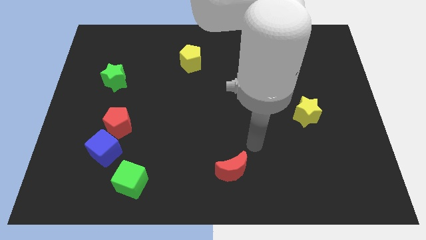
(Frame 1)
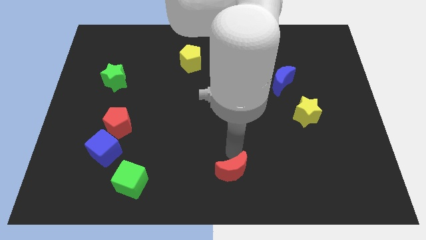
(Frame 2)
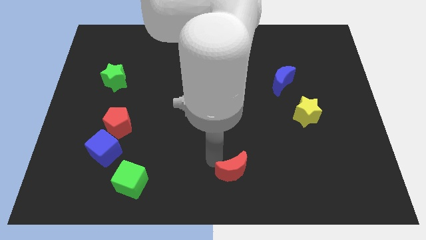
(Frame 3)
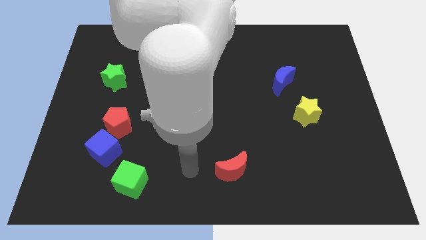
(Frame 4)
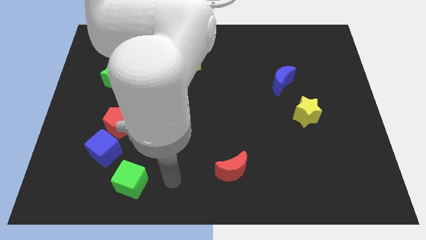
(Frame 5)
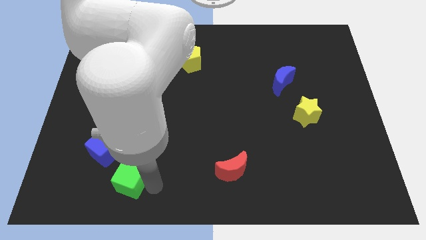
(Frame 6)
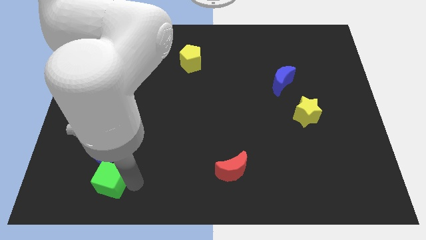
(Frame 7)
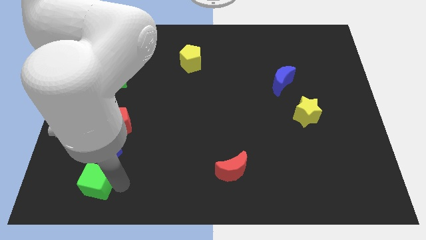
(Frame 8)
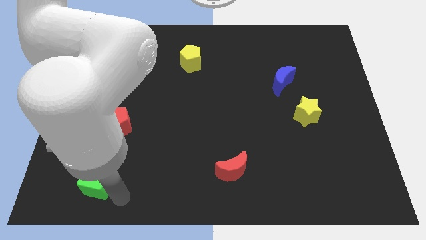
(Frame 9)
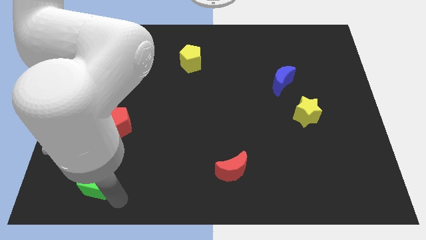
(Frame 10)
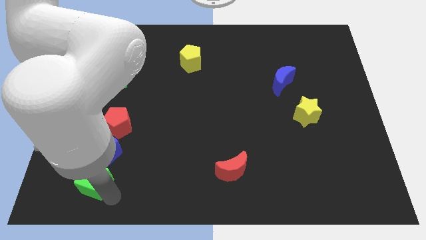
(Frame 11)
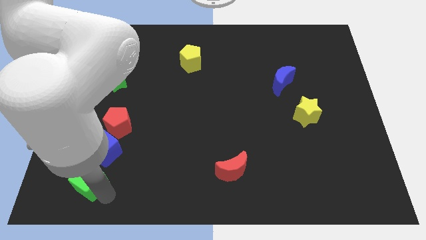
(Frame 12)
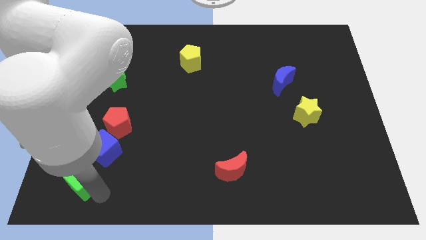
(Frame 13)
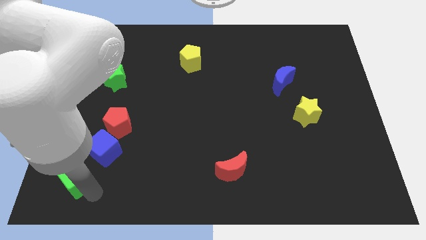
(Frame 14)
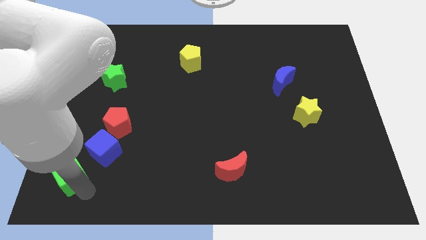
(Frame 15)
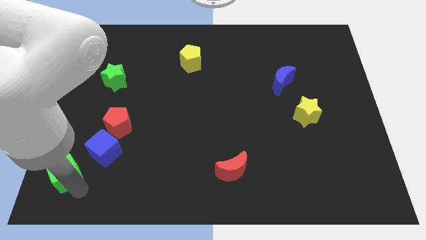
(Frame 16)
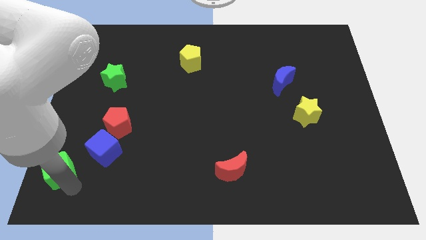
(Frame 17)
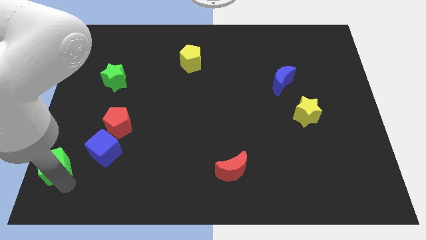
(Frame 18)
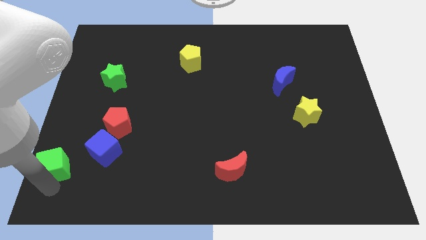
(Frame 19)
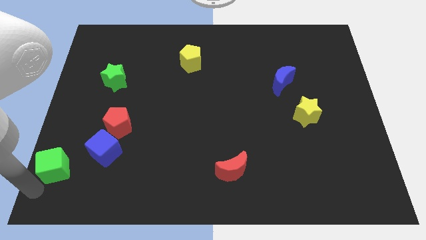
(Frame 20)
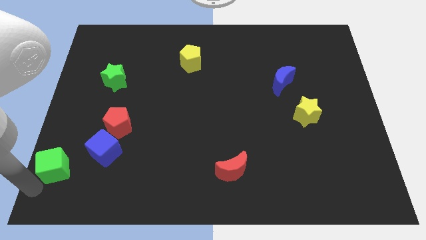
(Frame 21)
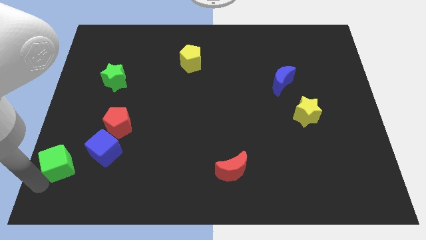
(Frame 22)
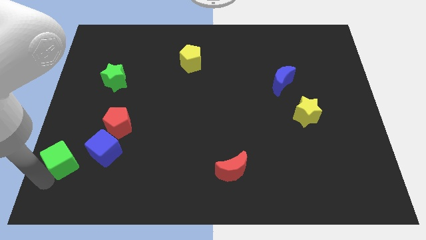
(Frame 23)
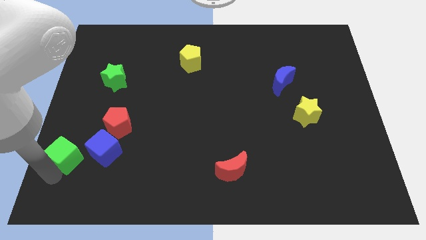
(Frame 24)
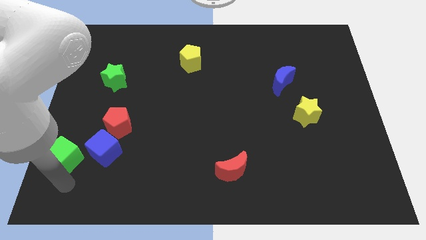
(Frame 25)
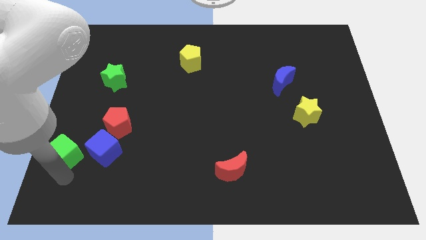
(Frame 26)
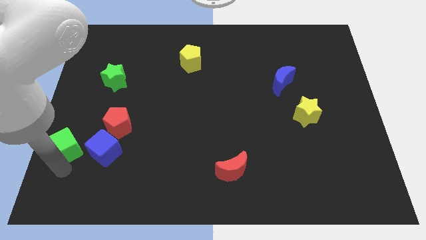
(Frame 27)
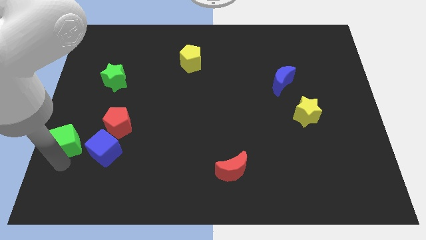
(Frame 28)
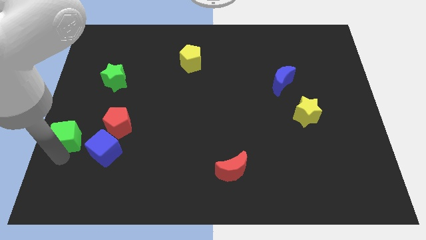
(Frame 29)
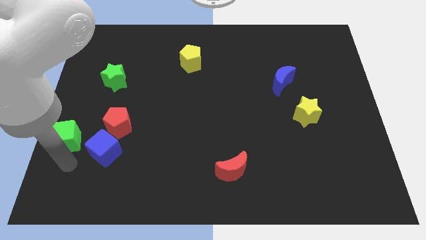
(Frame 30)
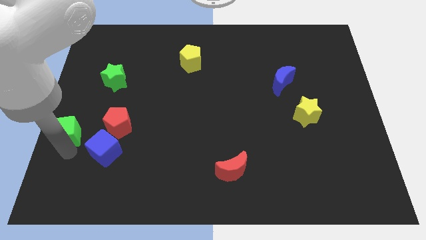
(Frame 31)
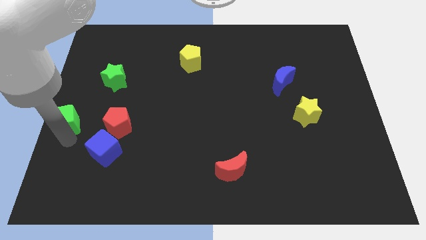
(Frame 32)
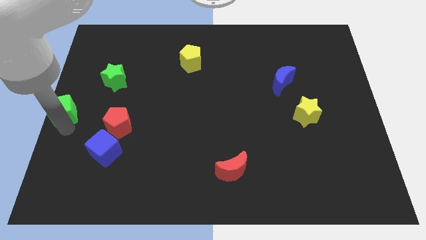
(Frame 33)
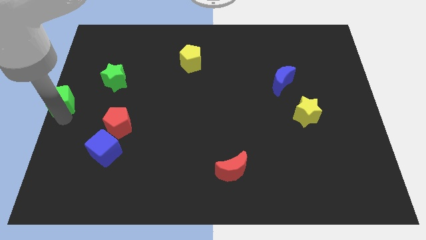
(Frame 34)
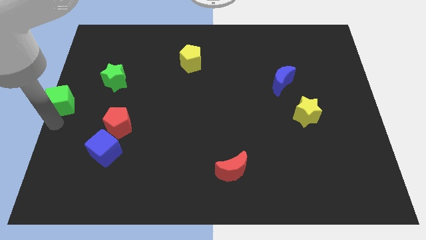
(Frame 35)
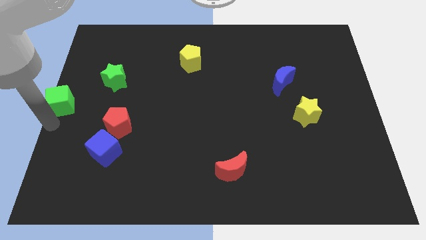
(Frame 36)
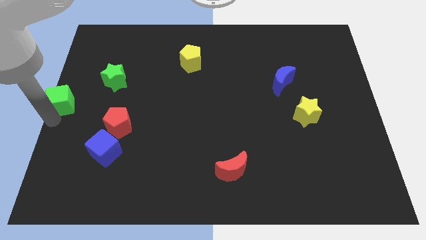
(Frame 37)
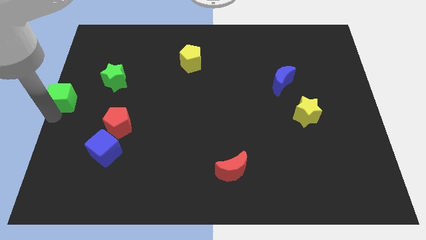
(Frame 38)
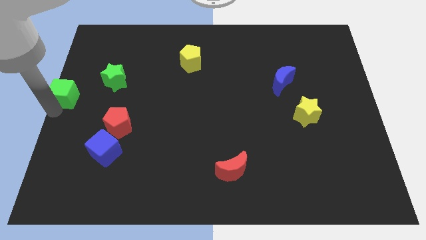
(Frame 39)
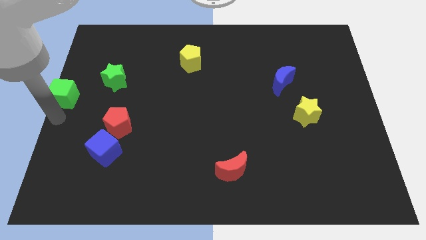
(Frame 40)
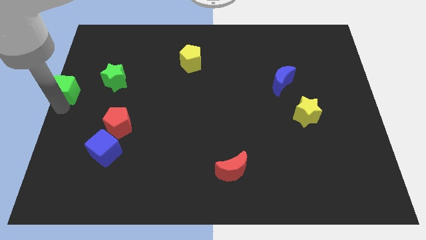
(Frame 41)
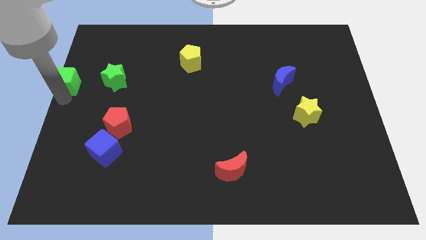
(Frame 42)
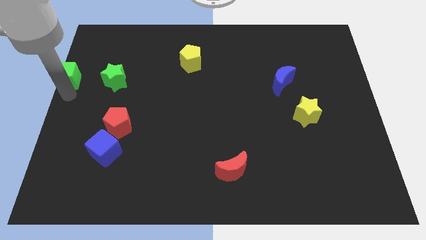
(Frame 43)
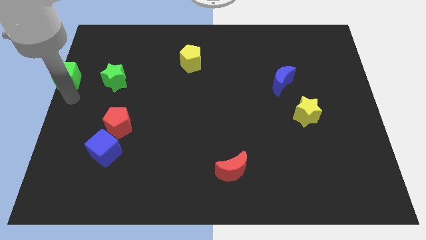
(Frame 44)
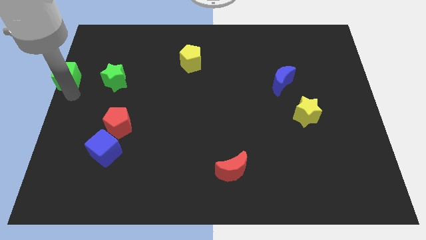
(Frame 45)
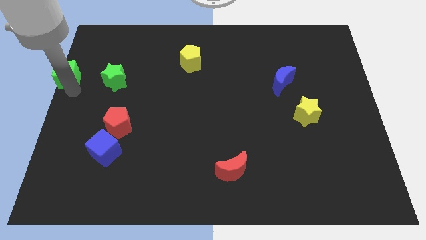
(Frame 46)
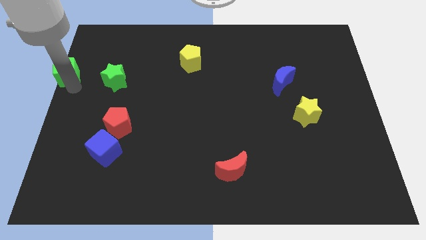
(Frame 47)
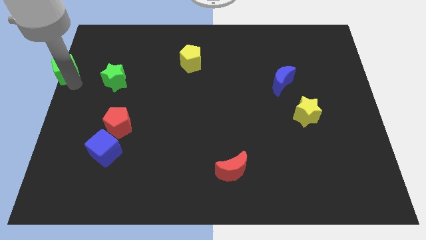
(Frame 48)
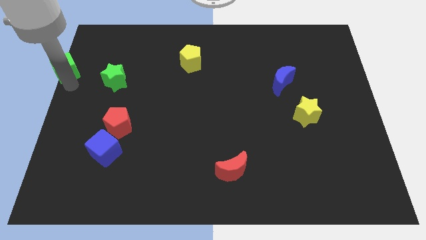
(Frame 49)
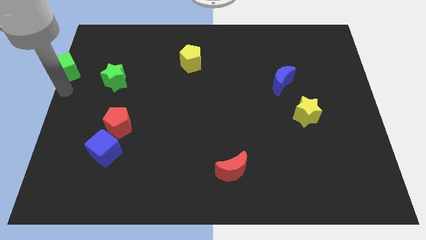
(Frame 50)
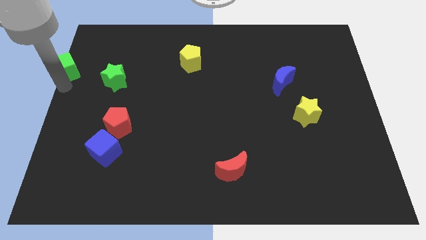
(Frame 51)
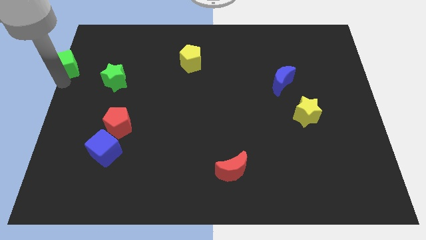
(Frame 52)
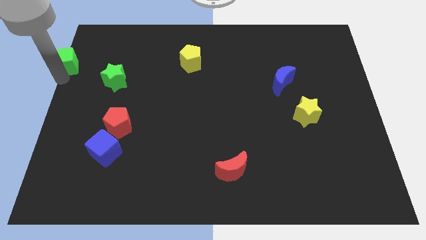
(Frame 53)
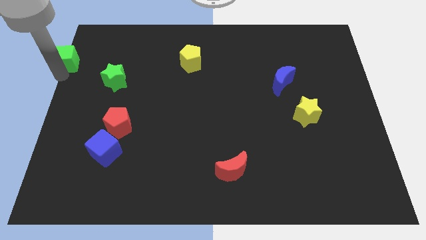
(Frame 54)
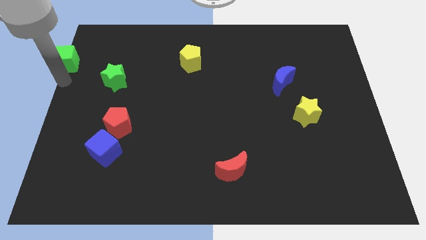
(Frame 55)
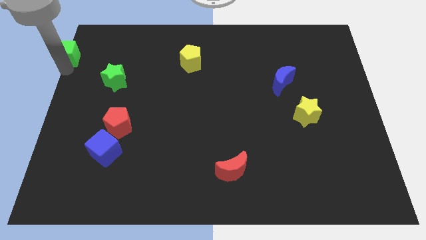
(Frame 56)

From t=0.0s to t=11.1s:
put the green cube to the top left

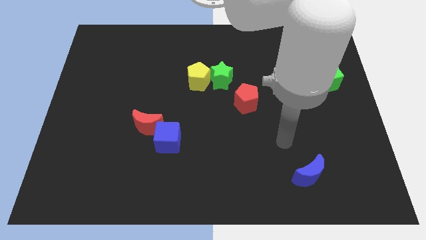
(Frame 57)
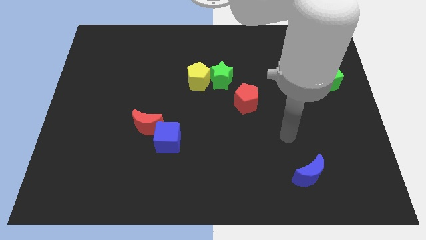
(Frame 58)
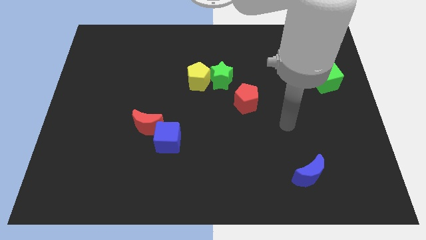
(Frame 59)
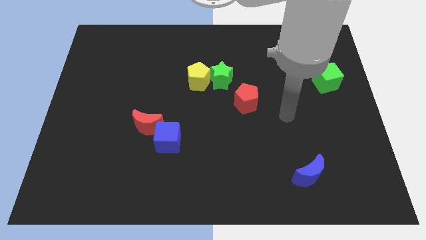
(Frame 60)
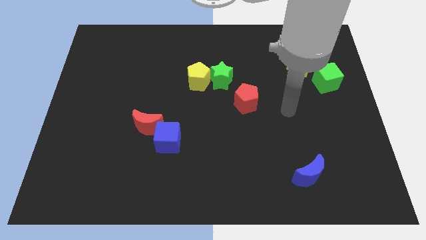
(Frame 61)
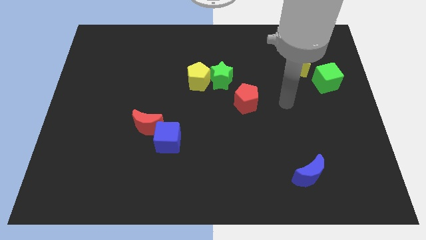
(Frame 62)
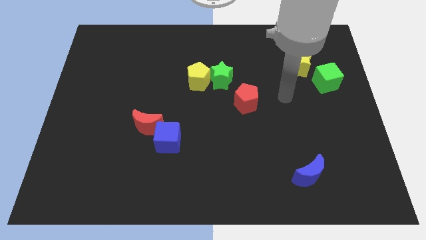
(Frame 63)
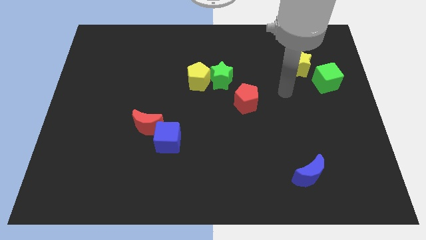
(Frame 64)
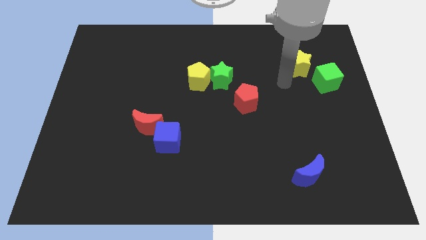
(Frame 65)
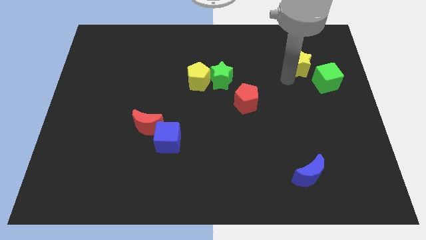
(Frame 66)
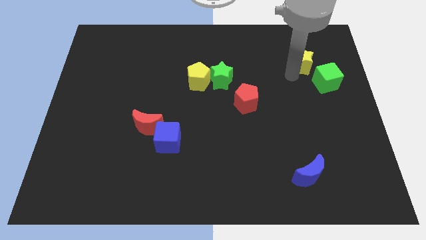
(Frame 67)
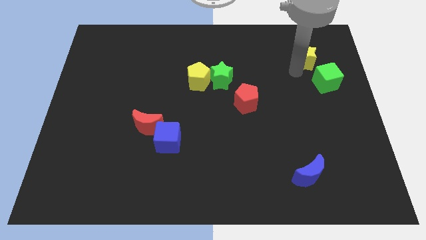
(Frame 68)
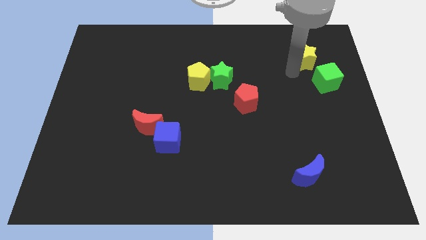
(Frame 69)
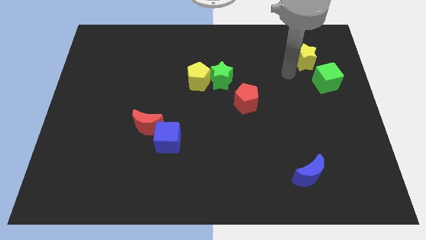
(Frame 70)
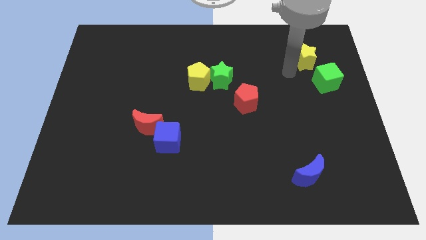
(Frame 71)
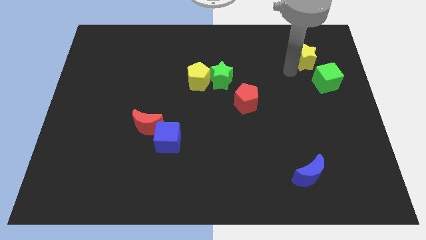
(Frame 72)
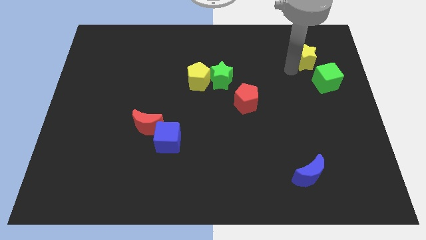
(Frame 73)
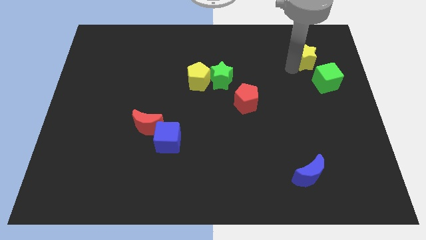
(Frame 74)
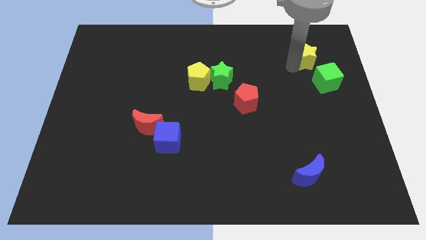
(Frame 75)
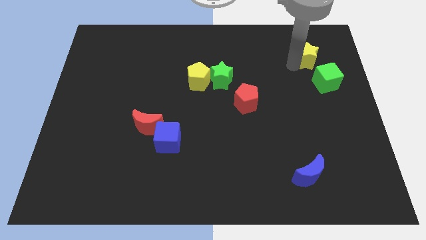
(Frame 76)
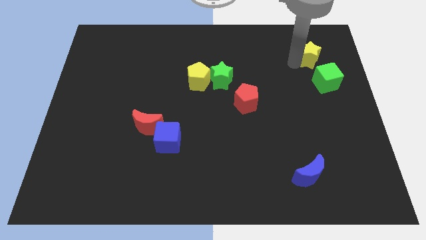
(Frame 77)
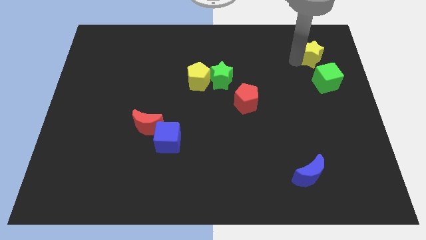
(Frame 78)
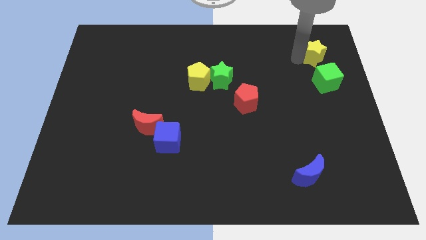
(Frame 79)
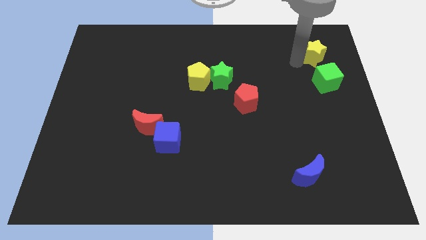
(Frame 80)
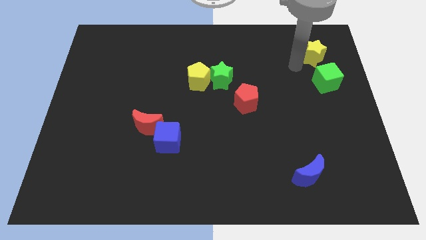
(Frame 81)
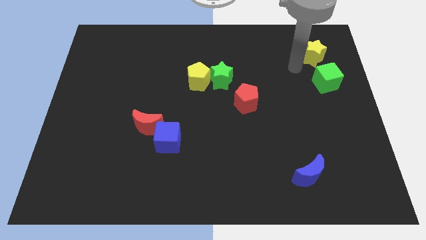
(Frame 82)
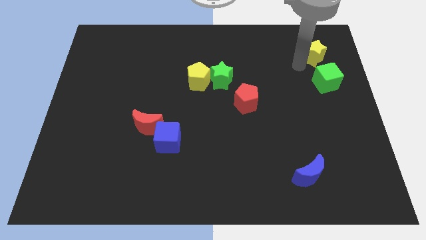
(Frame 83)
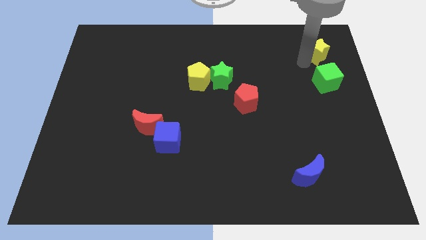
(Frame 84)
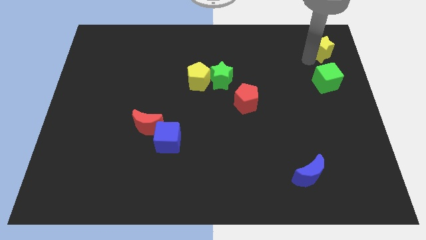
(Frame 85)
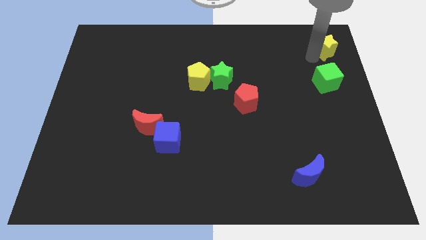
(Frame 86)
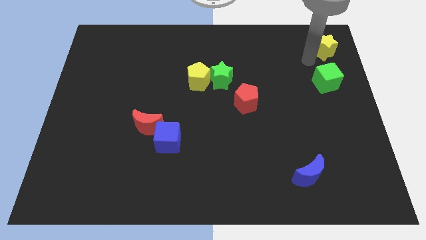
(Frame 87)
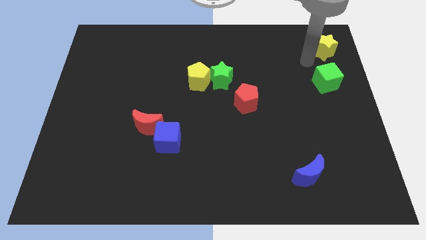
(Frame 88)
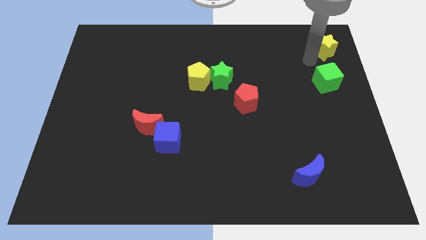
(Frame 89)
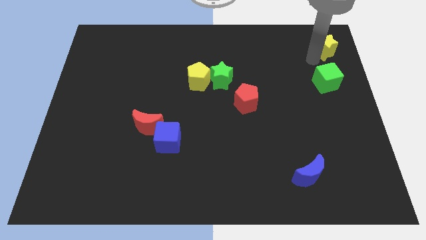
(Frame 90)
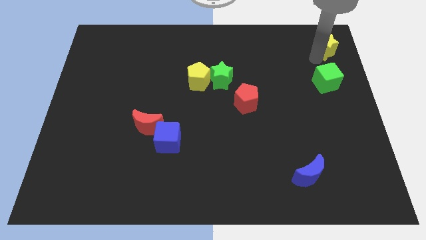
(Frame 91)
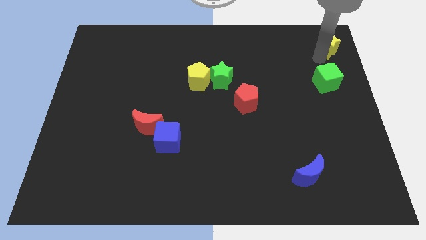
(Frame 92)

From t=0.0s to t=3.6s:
put the yellow star to the top right of the board
